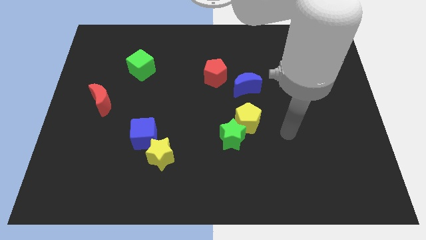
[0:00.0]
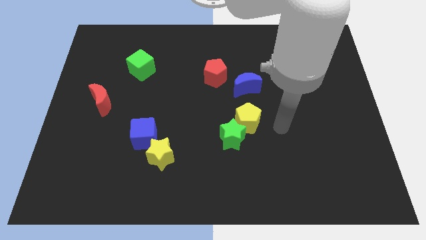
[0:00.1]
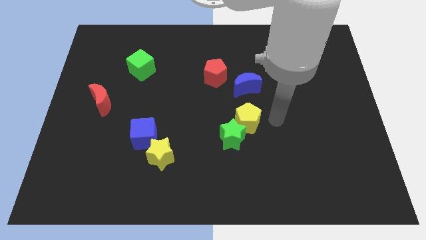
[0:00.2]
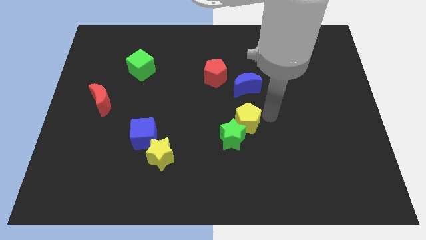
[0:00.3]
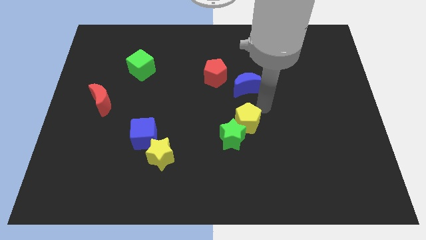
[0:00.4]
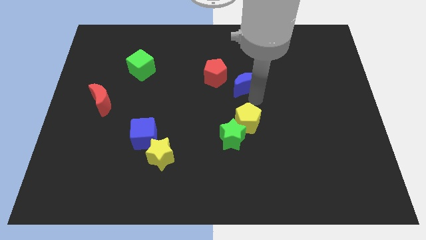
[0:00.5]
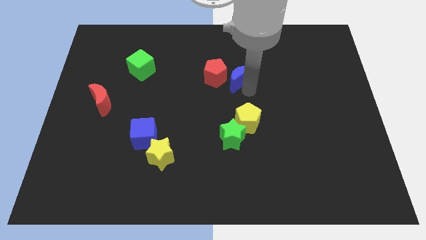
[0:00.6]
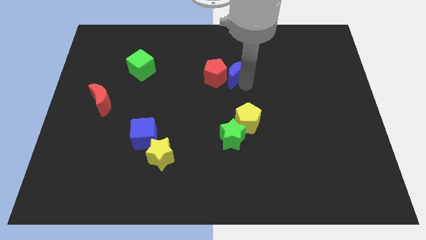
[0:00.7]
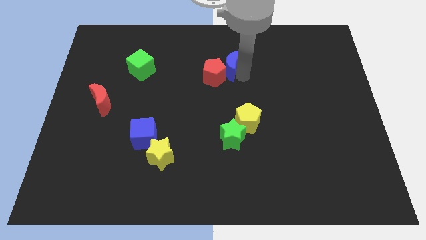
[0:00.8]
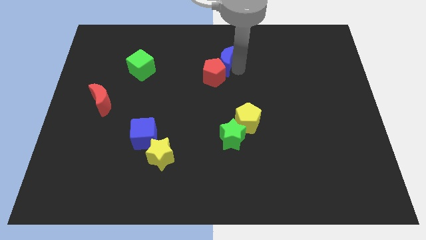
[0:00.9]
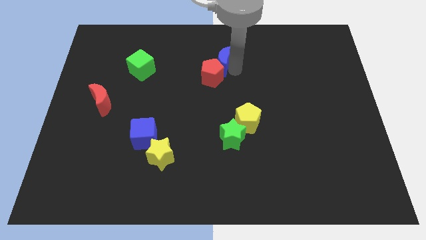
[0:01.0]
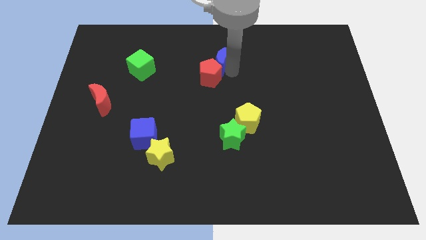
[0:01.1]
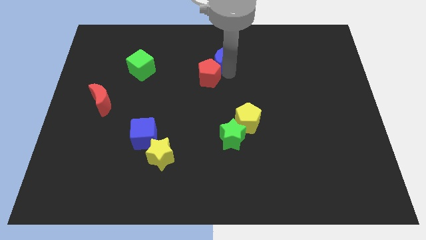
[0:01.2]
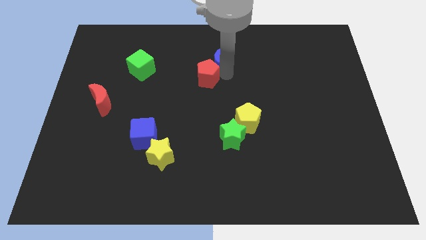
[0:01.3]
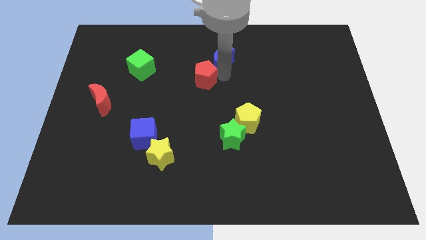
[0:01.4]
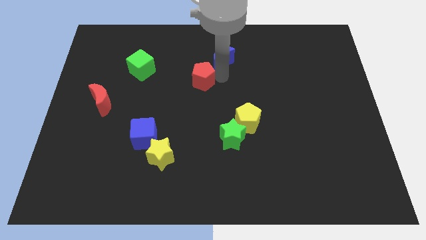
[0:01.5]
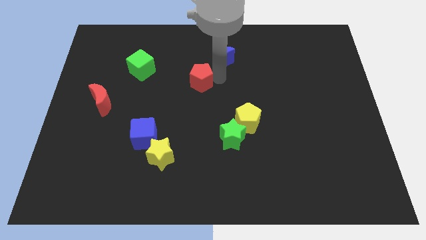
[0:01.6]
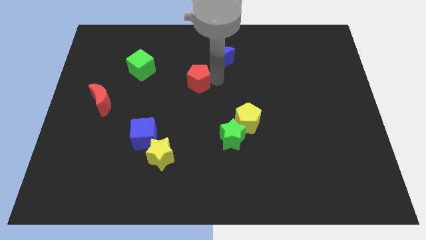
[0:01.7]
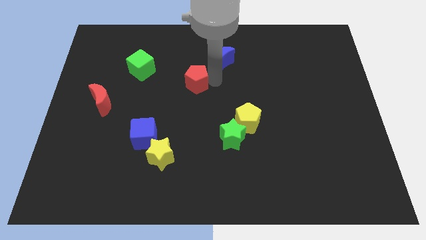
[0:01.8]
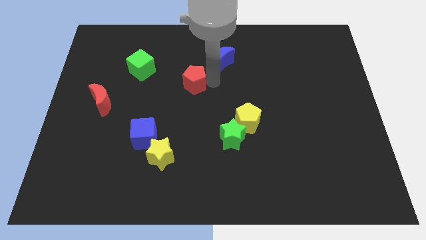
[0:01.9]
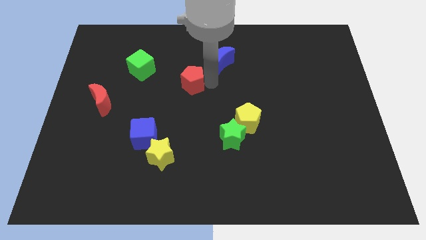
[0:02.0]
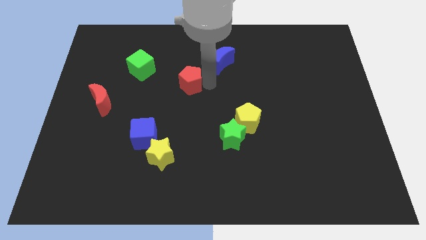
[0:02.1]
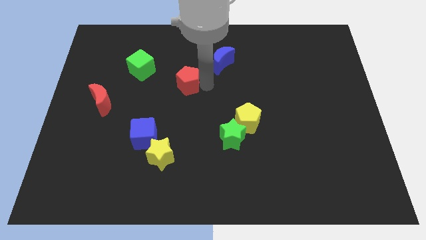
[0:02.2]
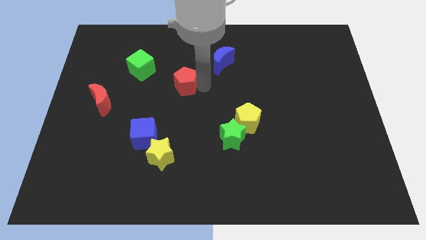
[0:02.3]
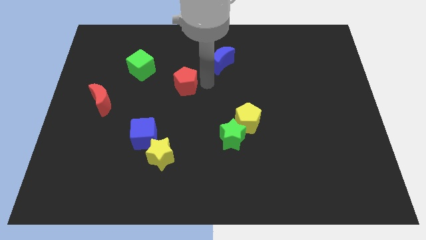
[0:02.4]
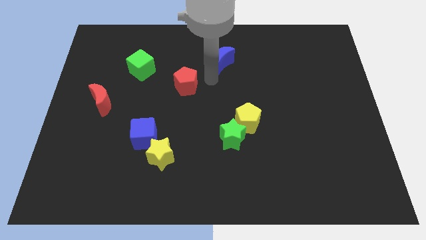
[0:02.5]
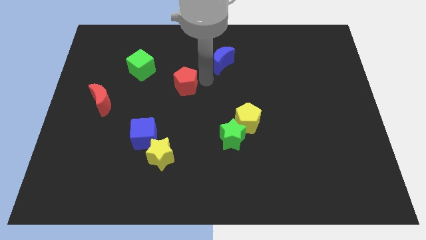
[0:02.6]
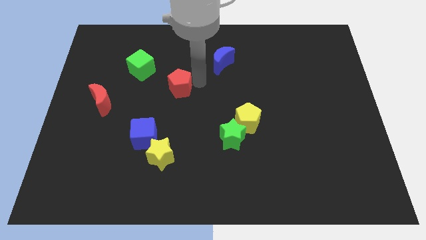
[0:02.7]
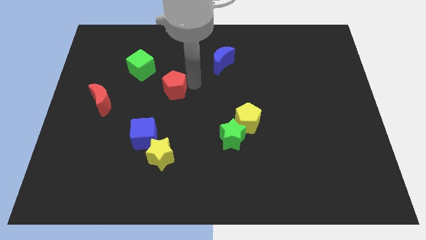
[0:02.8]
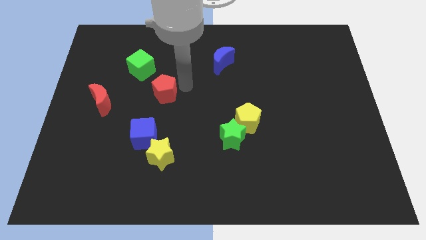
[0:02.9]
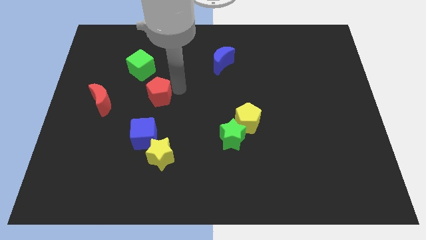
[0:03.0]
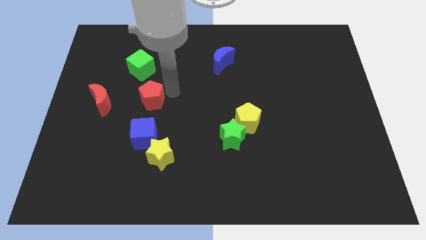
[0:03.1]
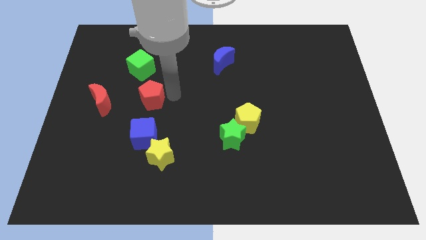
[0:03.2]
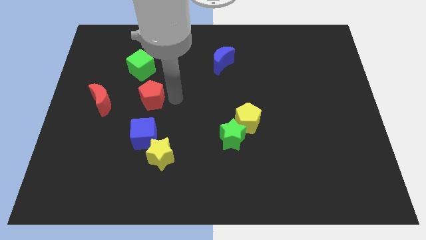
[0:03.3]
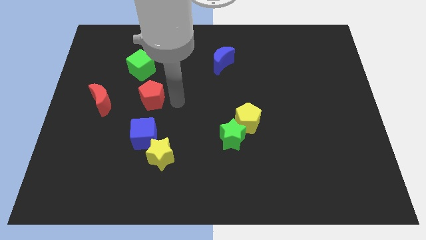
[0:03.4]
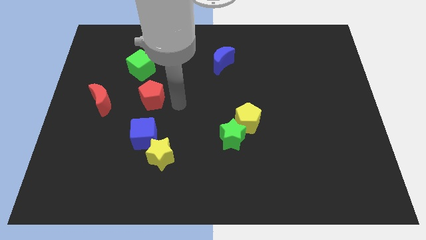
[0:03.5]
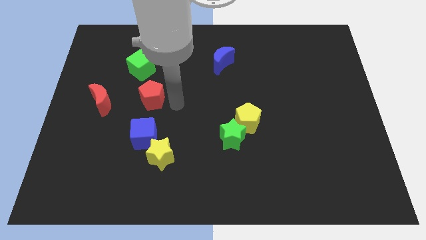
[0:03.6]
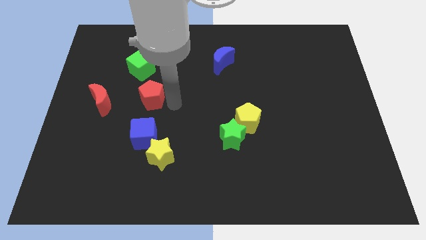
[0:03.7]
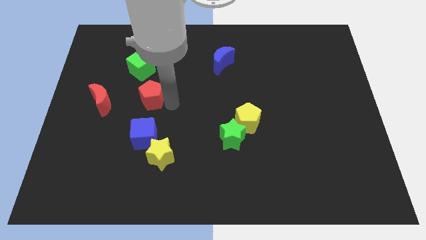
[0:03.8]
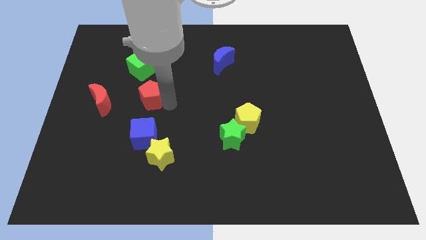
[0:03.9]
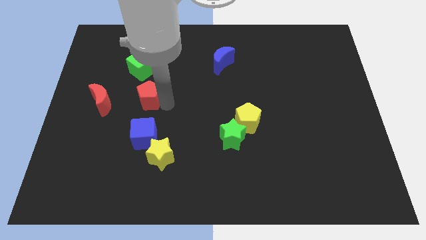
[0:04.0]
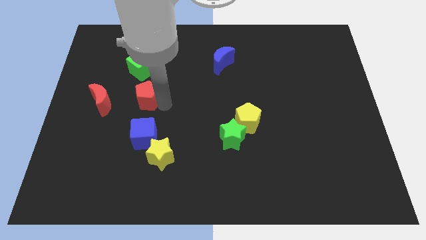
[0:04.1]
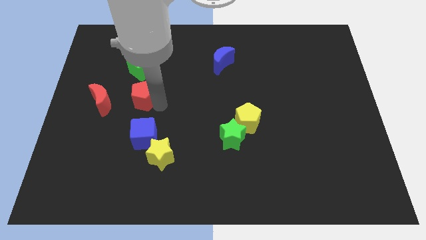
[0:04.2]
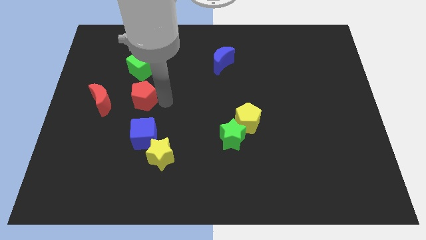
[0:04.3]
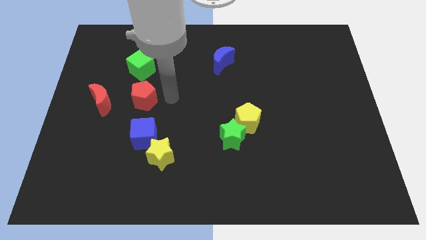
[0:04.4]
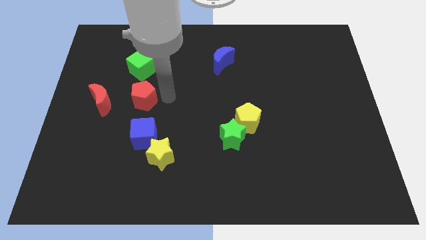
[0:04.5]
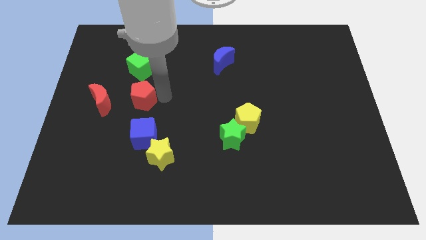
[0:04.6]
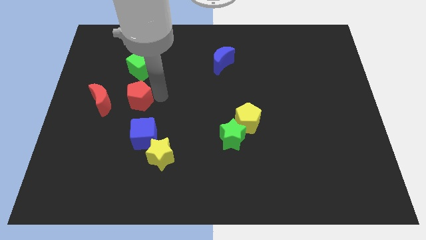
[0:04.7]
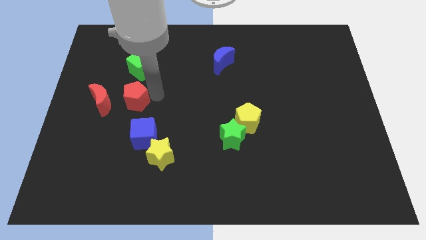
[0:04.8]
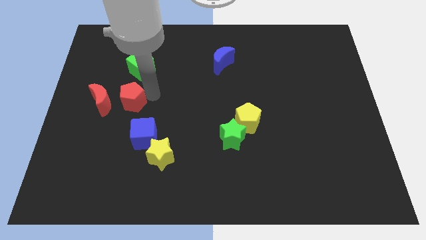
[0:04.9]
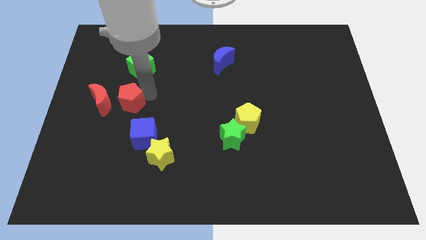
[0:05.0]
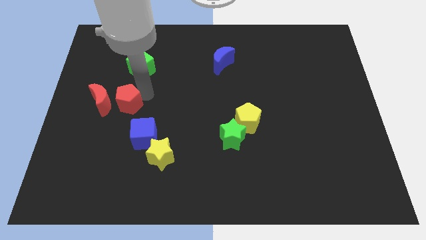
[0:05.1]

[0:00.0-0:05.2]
put the red pentagon next to the red moon

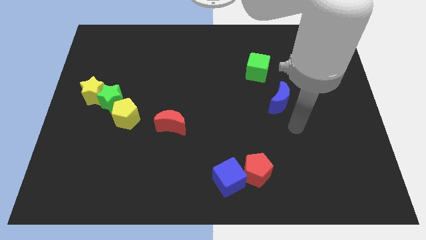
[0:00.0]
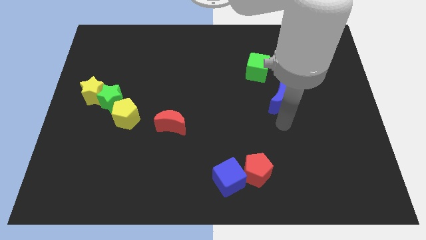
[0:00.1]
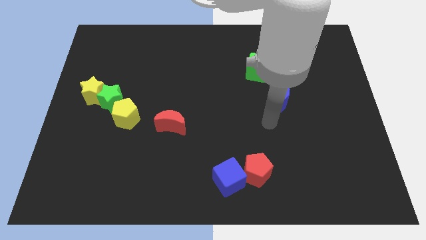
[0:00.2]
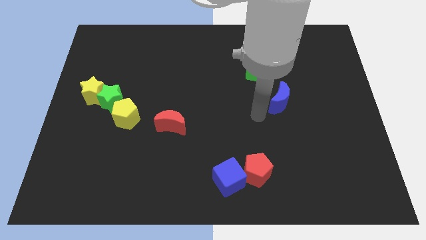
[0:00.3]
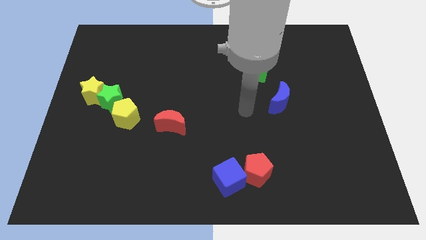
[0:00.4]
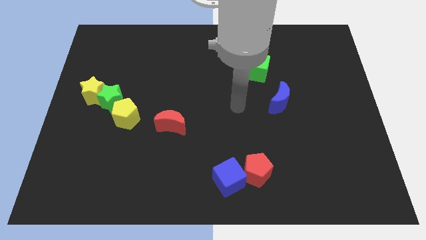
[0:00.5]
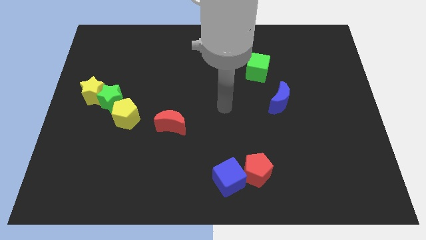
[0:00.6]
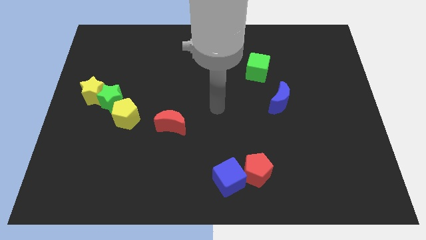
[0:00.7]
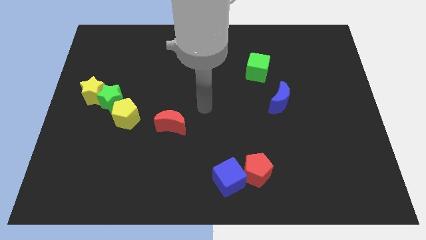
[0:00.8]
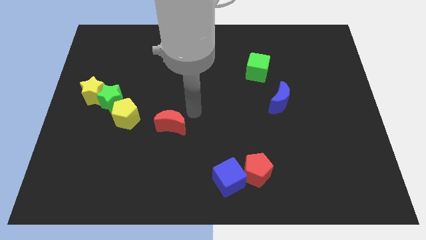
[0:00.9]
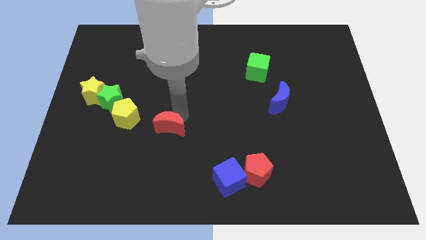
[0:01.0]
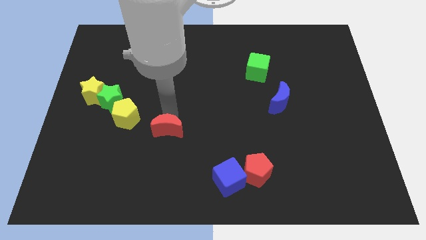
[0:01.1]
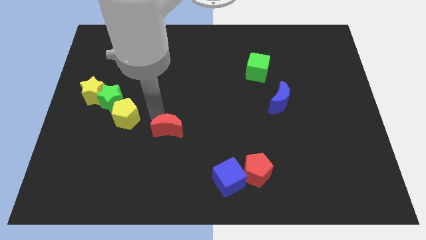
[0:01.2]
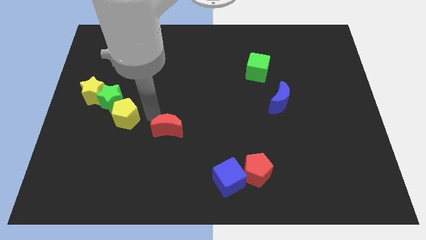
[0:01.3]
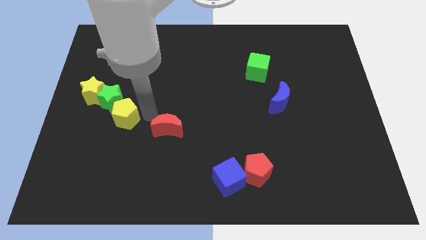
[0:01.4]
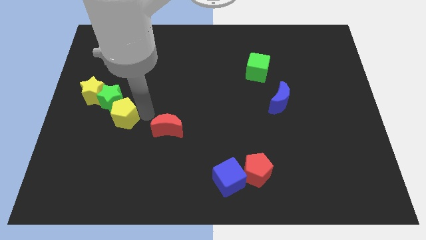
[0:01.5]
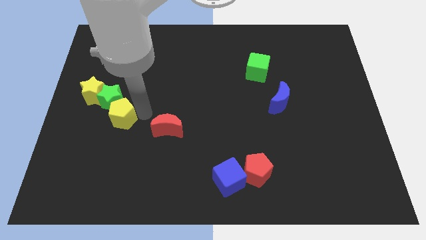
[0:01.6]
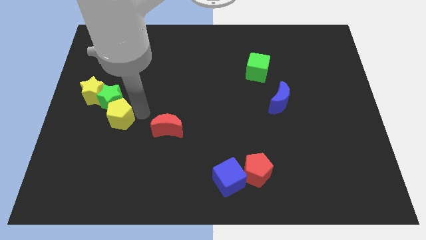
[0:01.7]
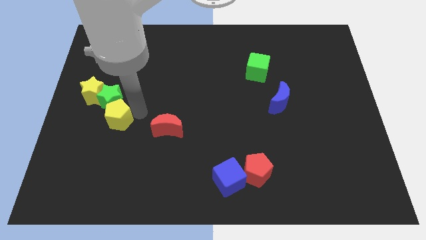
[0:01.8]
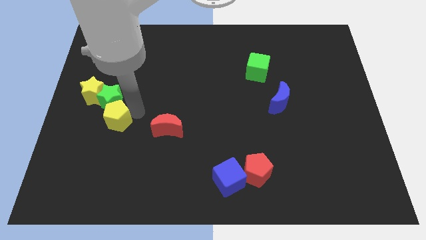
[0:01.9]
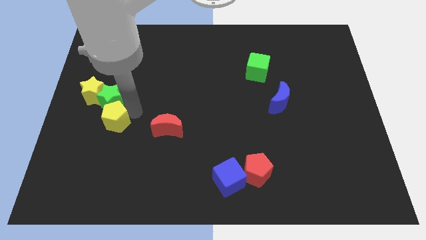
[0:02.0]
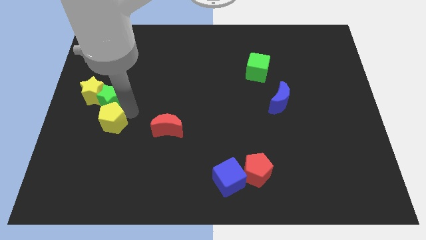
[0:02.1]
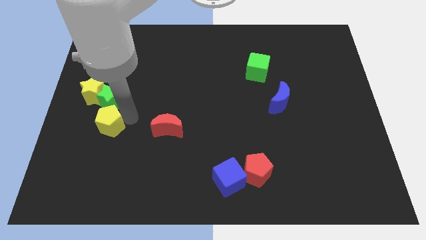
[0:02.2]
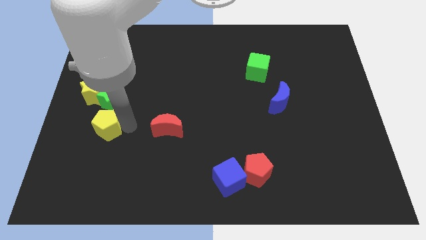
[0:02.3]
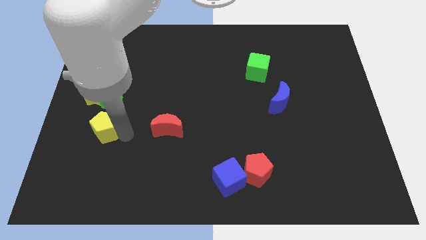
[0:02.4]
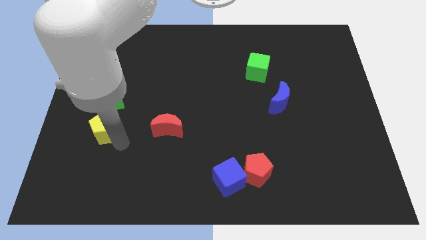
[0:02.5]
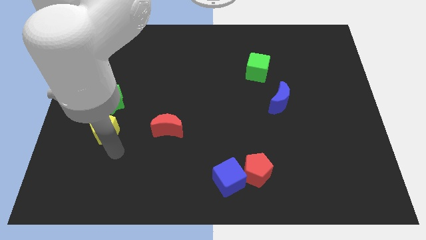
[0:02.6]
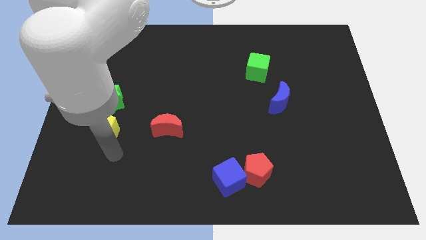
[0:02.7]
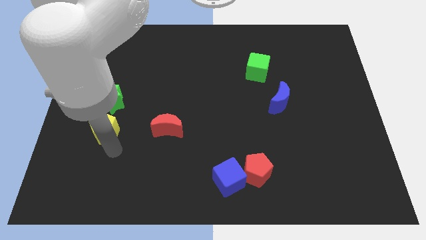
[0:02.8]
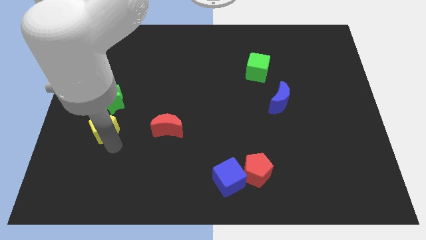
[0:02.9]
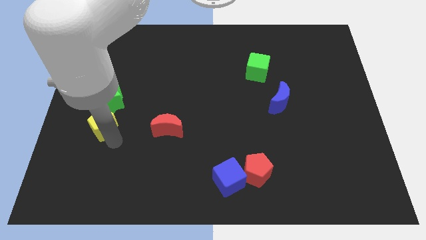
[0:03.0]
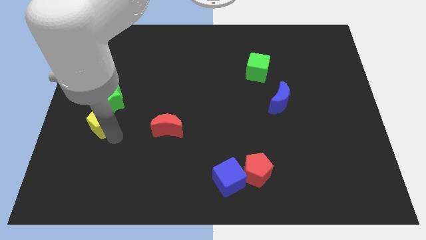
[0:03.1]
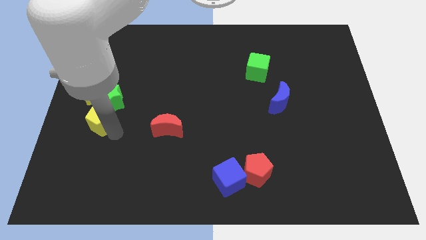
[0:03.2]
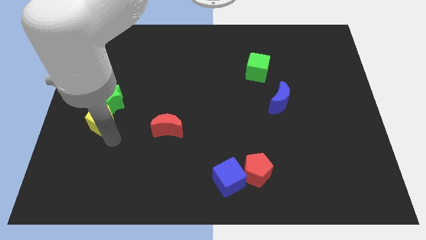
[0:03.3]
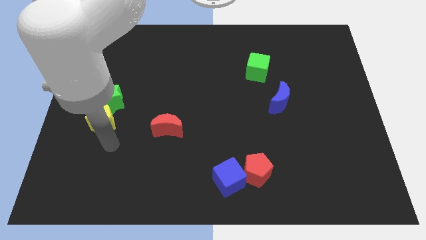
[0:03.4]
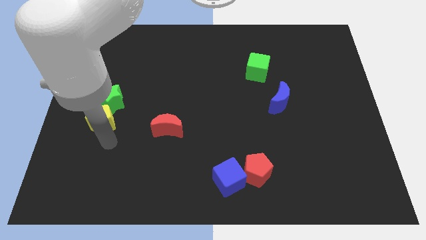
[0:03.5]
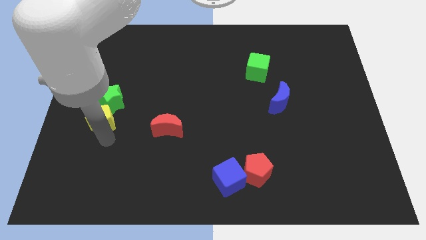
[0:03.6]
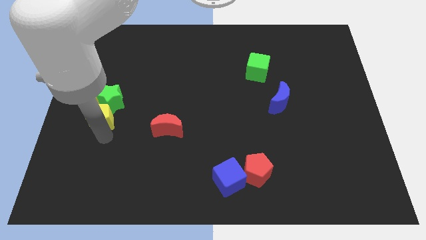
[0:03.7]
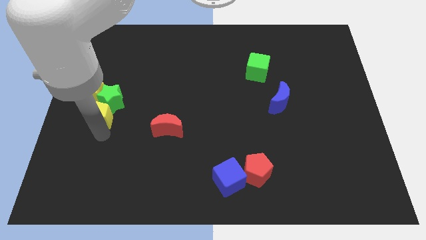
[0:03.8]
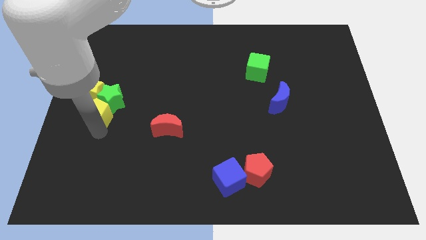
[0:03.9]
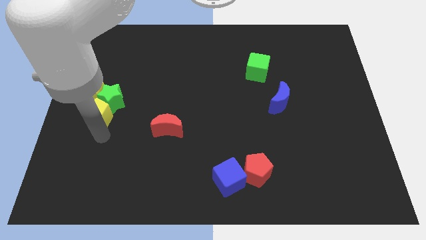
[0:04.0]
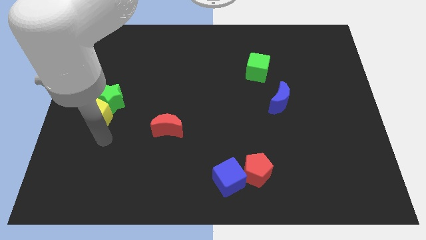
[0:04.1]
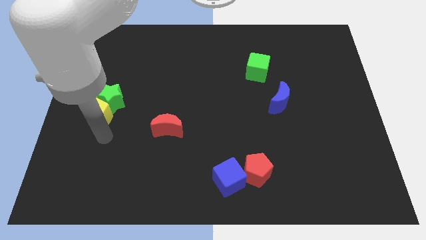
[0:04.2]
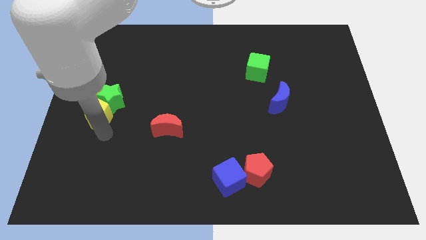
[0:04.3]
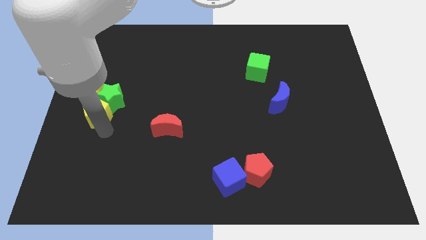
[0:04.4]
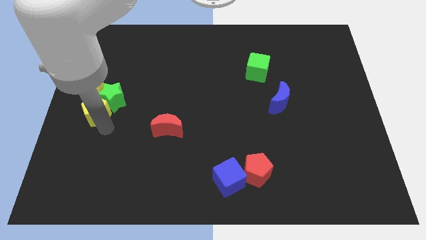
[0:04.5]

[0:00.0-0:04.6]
put the yellow pentagon close to the yellow star
